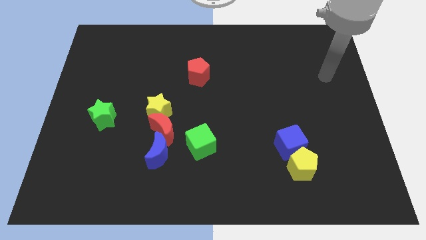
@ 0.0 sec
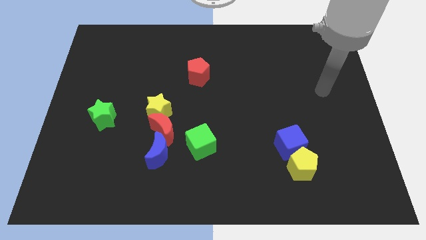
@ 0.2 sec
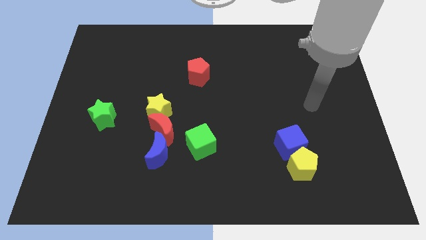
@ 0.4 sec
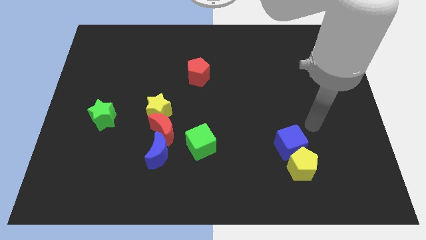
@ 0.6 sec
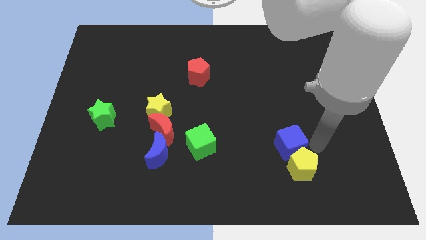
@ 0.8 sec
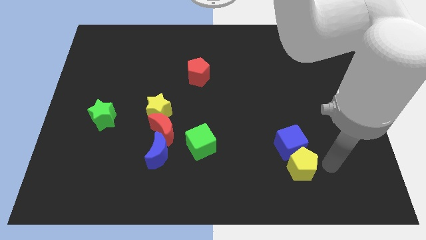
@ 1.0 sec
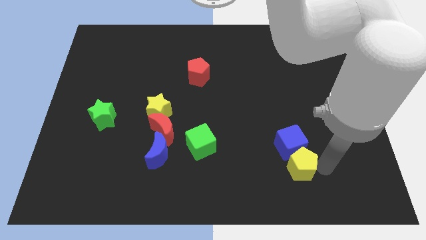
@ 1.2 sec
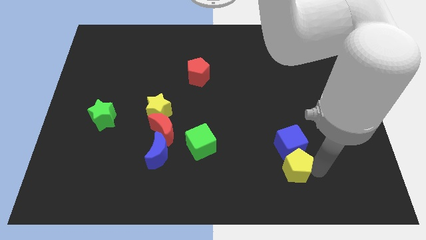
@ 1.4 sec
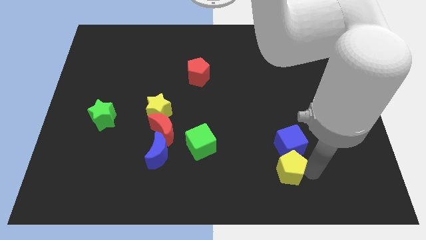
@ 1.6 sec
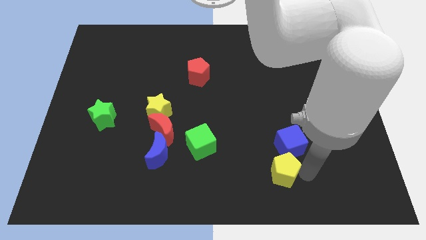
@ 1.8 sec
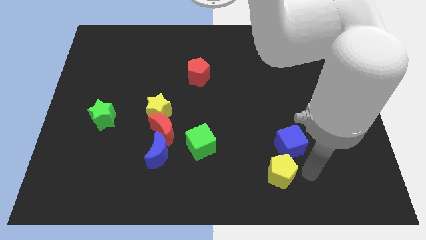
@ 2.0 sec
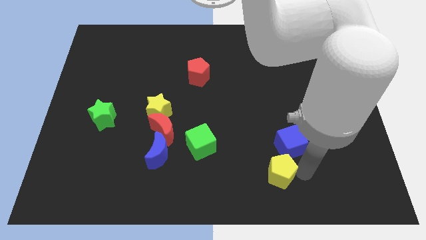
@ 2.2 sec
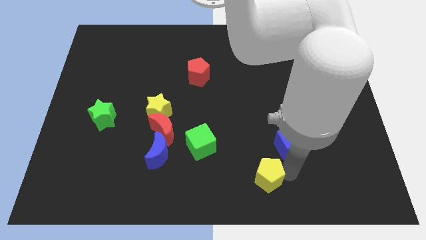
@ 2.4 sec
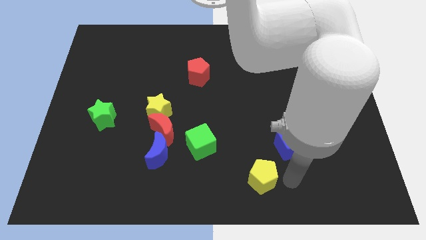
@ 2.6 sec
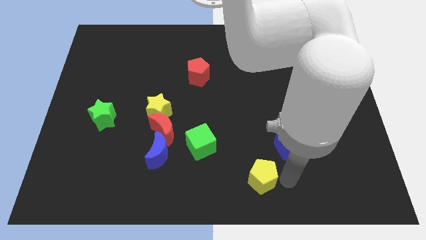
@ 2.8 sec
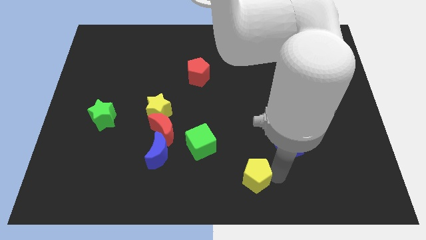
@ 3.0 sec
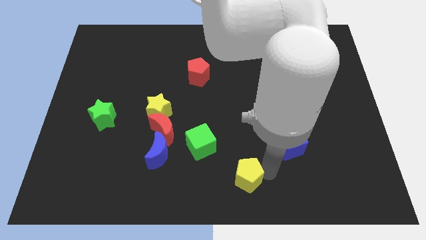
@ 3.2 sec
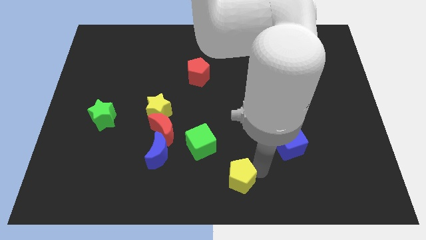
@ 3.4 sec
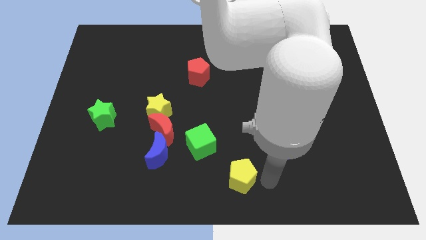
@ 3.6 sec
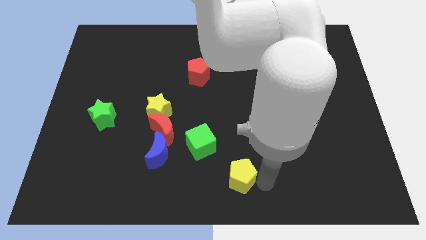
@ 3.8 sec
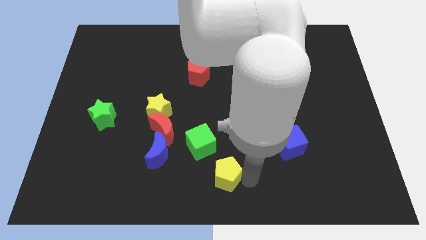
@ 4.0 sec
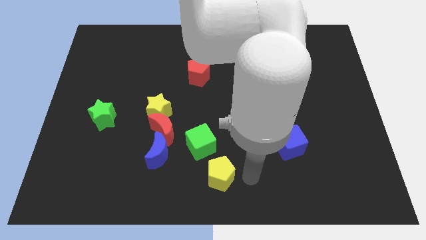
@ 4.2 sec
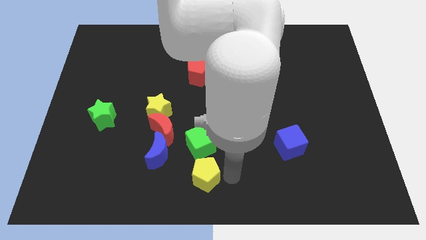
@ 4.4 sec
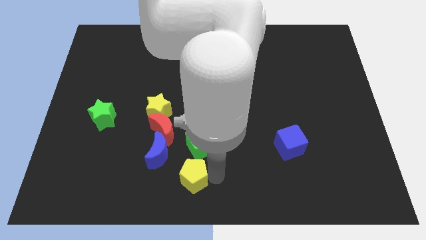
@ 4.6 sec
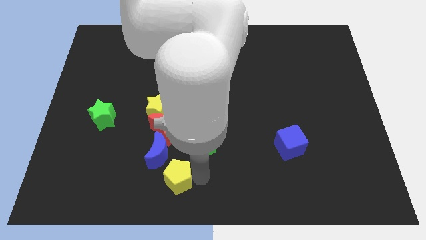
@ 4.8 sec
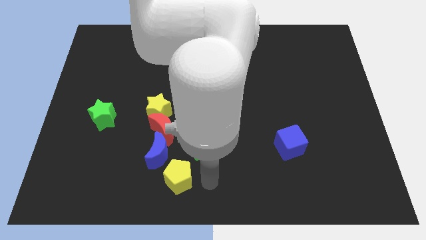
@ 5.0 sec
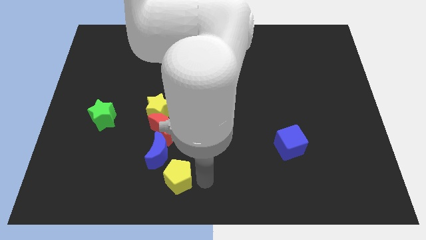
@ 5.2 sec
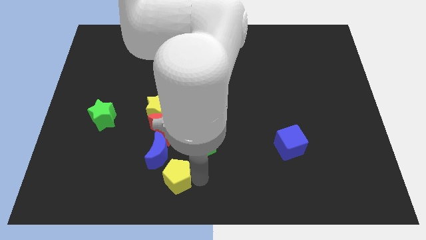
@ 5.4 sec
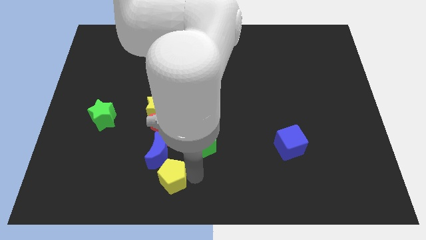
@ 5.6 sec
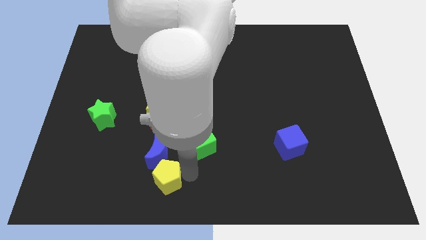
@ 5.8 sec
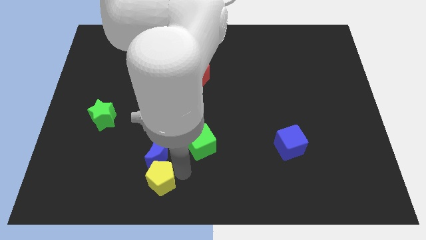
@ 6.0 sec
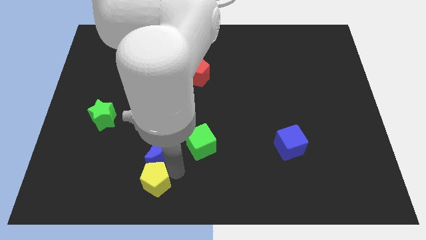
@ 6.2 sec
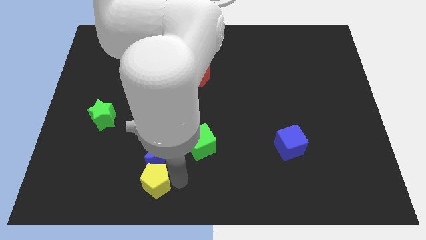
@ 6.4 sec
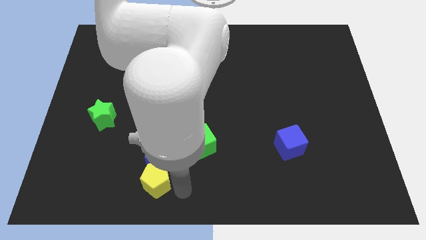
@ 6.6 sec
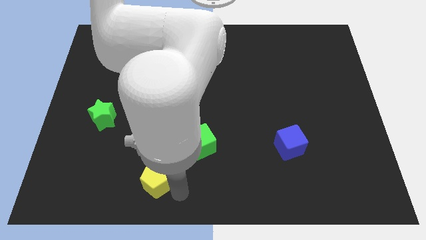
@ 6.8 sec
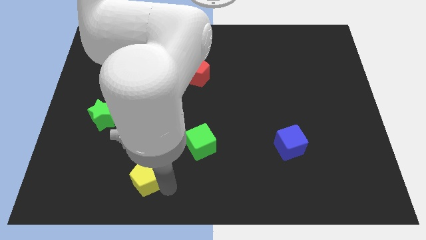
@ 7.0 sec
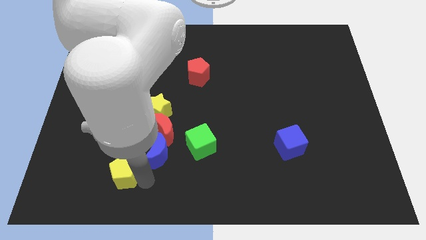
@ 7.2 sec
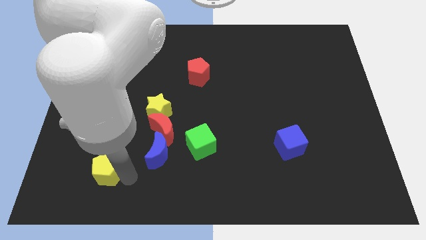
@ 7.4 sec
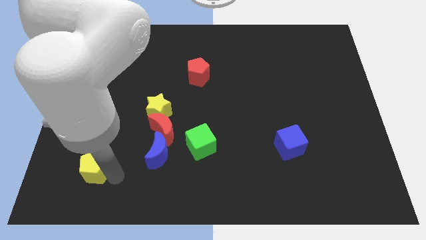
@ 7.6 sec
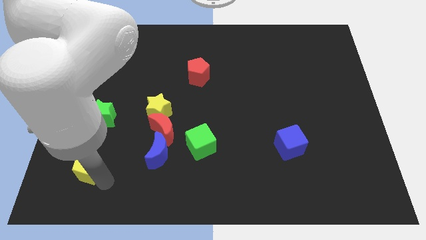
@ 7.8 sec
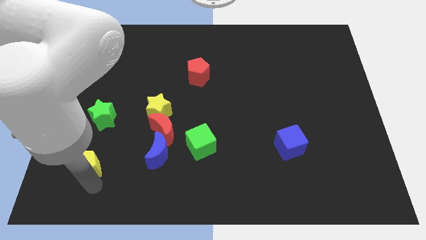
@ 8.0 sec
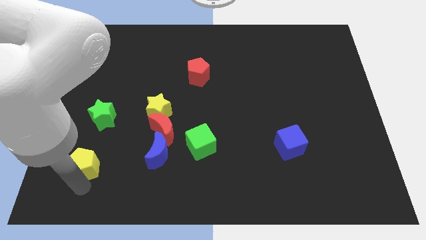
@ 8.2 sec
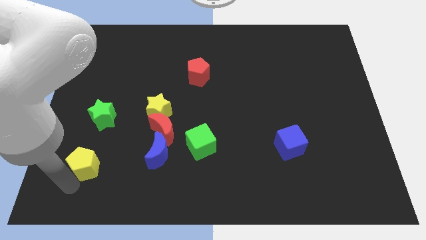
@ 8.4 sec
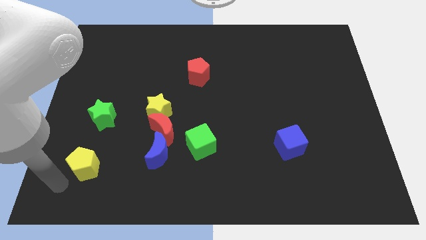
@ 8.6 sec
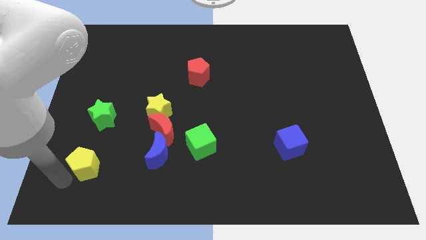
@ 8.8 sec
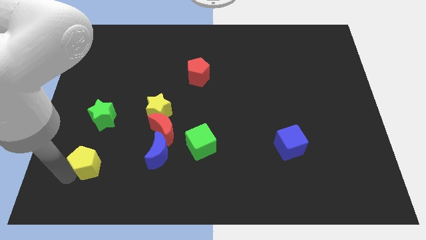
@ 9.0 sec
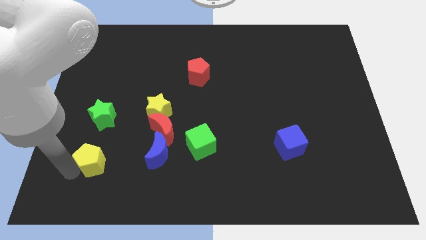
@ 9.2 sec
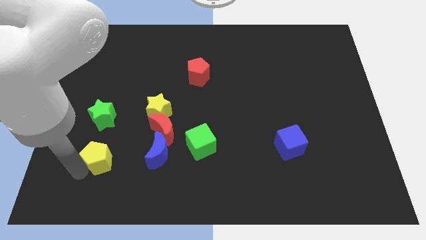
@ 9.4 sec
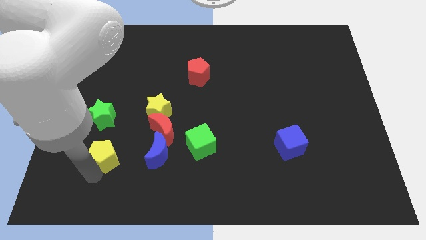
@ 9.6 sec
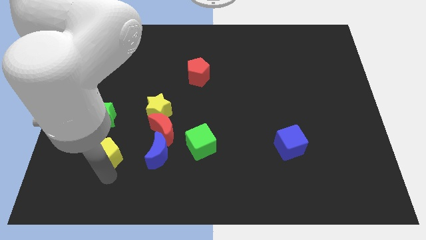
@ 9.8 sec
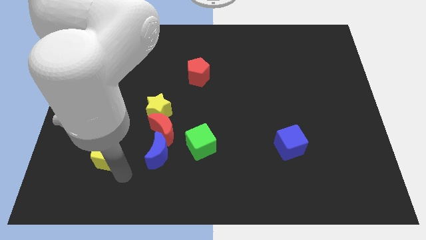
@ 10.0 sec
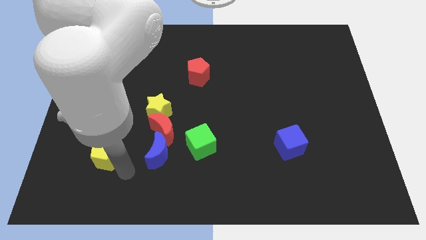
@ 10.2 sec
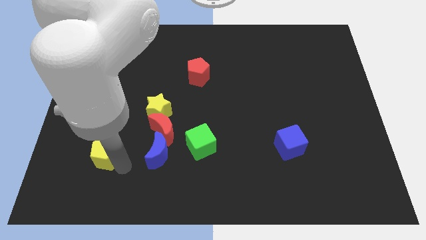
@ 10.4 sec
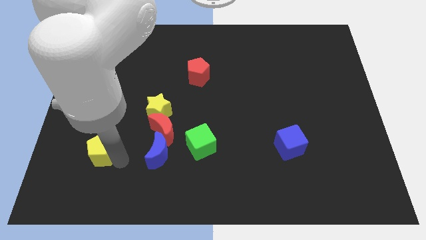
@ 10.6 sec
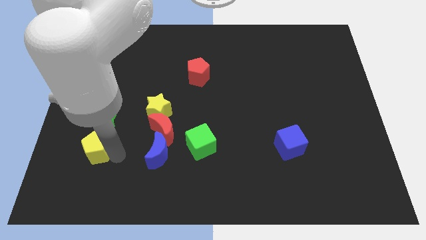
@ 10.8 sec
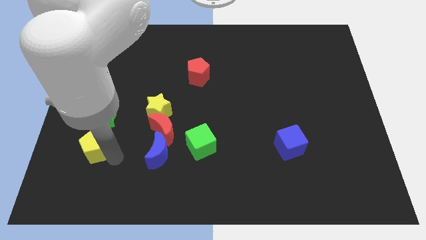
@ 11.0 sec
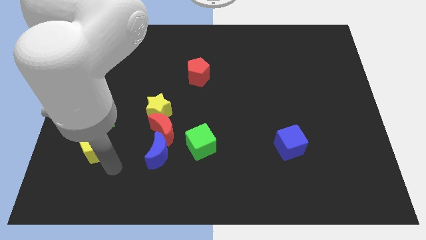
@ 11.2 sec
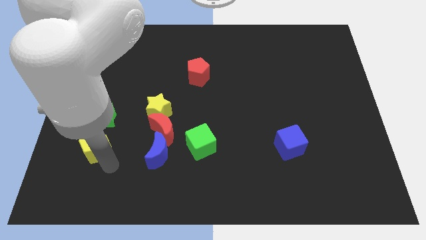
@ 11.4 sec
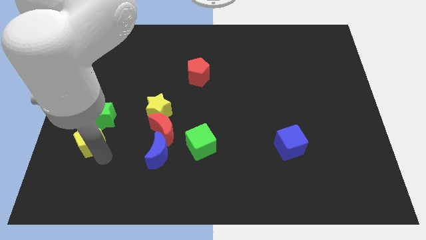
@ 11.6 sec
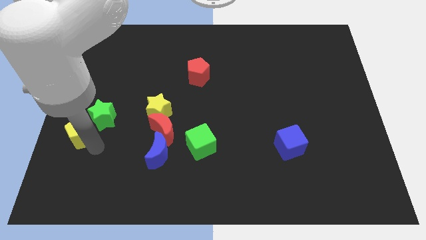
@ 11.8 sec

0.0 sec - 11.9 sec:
slide the yellow pentagon to the left side
